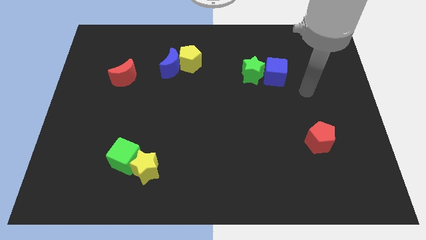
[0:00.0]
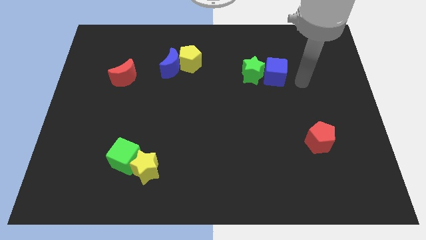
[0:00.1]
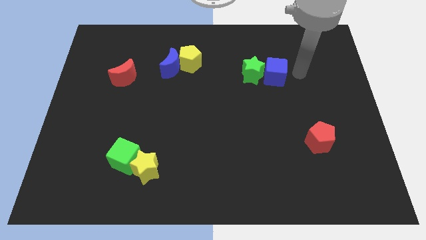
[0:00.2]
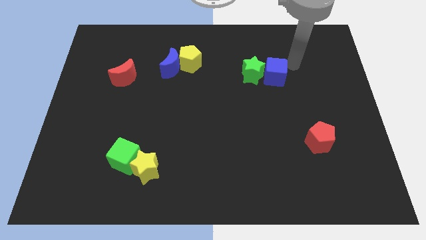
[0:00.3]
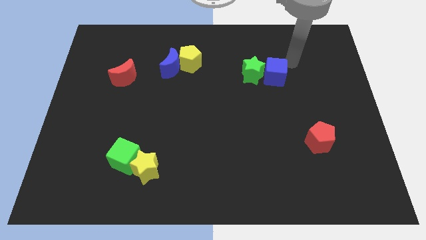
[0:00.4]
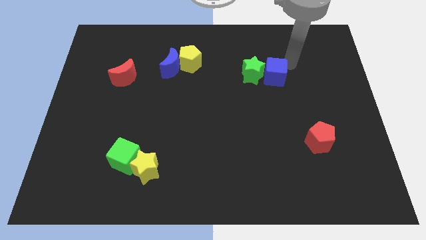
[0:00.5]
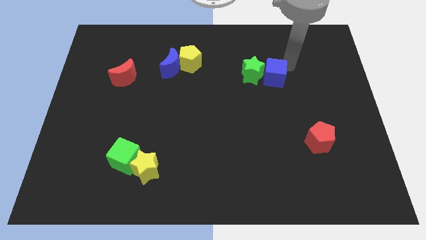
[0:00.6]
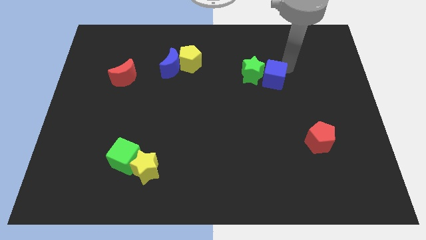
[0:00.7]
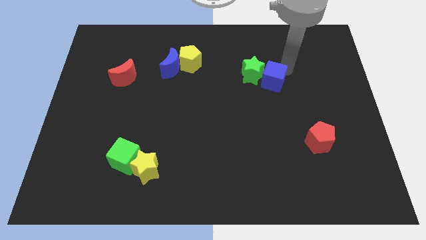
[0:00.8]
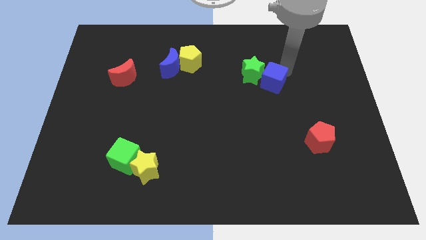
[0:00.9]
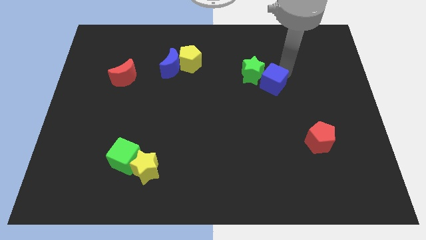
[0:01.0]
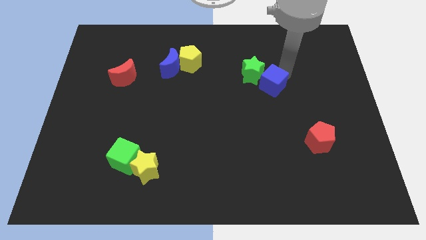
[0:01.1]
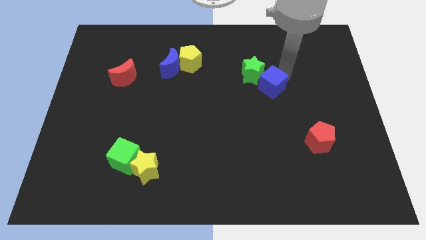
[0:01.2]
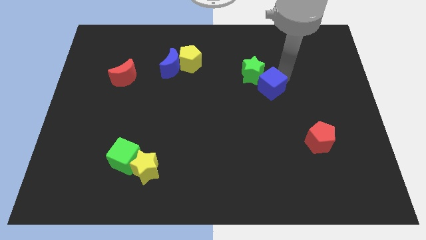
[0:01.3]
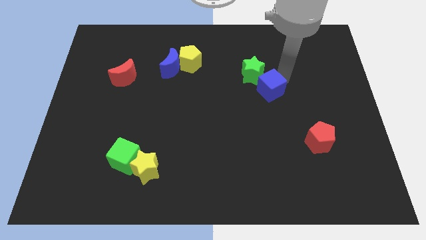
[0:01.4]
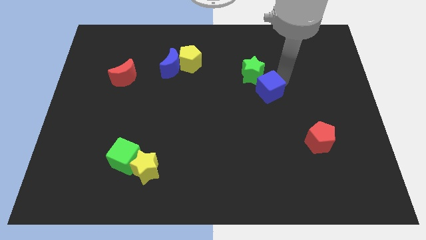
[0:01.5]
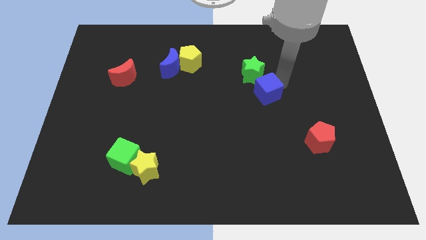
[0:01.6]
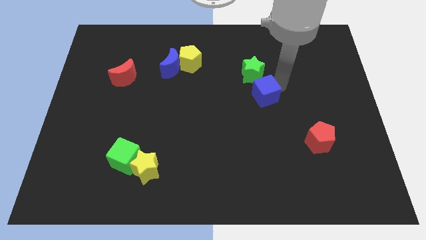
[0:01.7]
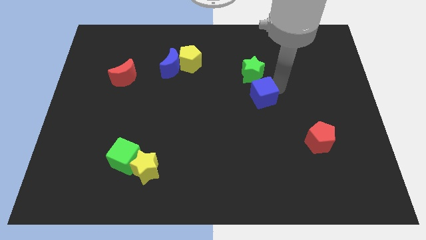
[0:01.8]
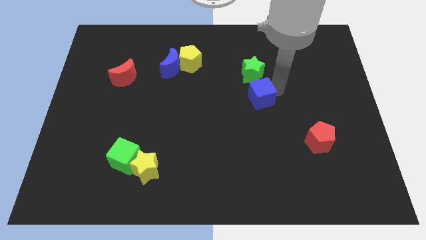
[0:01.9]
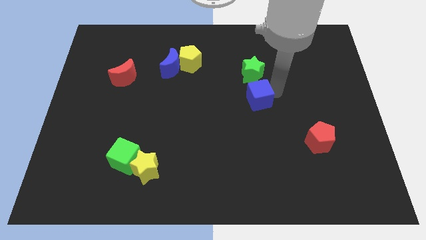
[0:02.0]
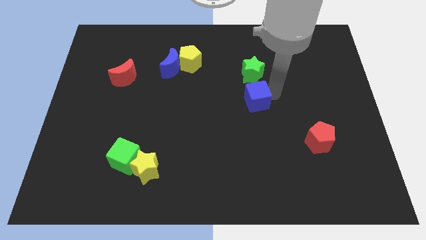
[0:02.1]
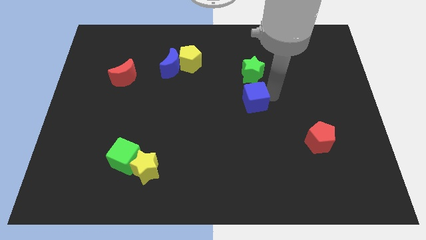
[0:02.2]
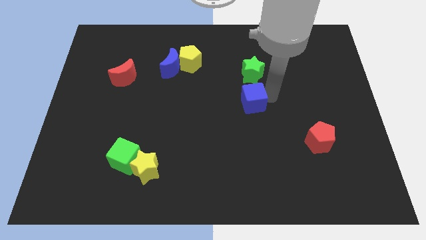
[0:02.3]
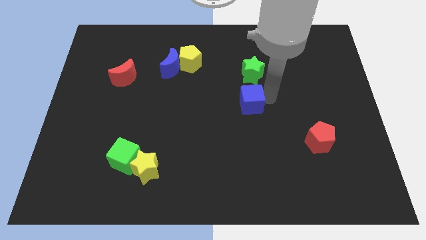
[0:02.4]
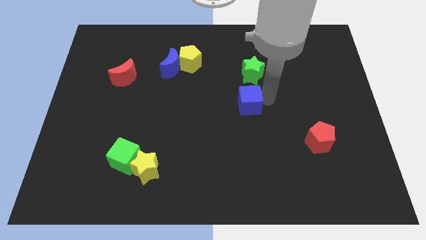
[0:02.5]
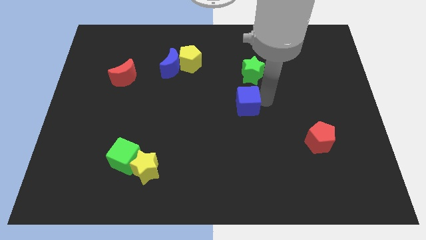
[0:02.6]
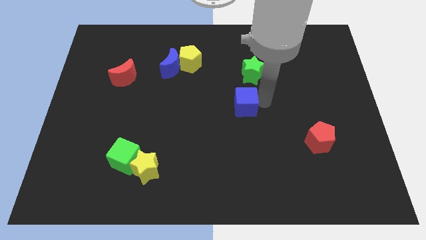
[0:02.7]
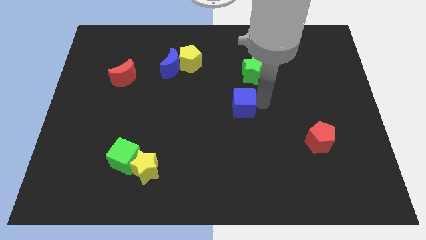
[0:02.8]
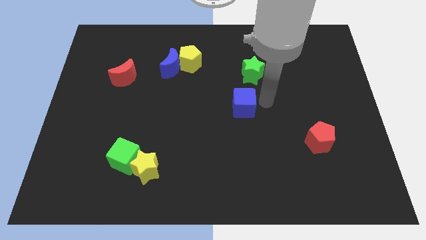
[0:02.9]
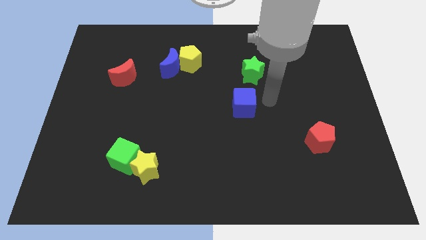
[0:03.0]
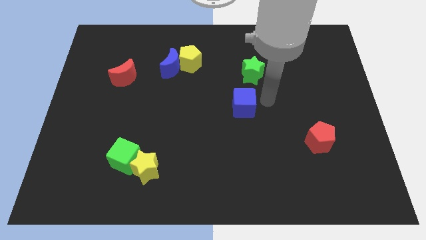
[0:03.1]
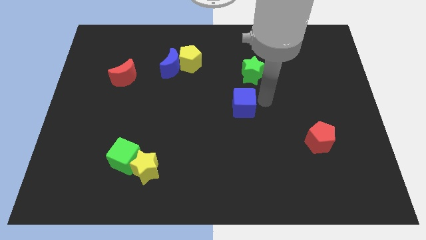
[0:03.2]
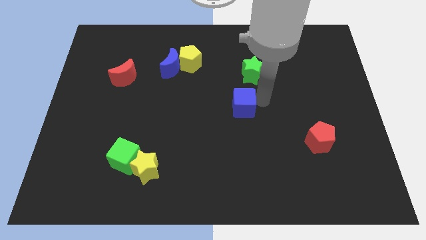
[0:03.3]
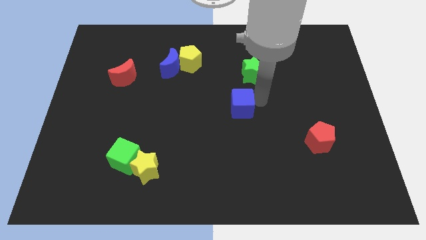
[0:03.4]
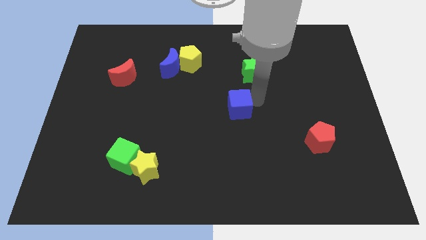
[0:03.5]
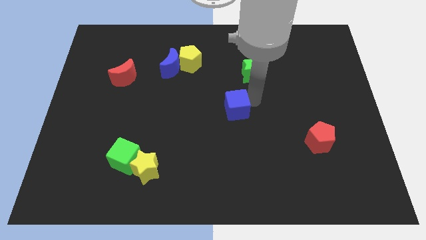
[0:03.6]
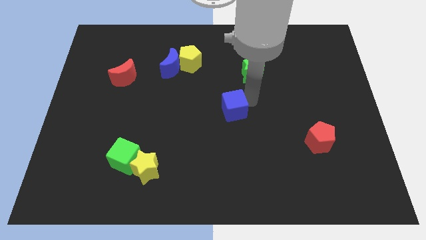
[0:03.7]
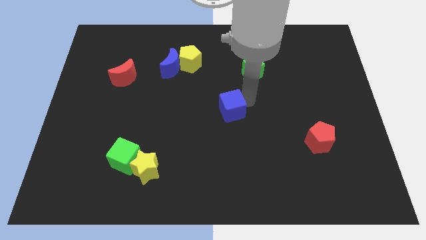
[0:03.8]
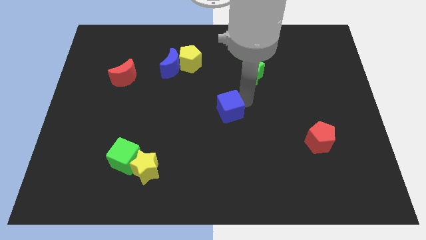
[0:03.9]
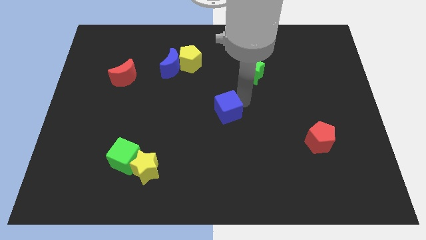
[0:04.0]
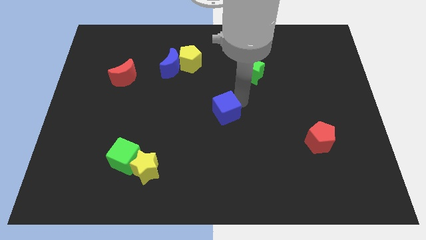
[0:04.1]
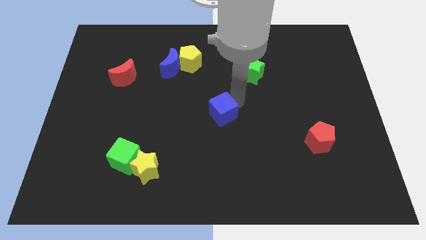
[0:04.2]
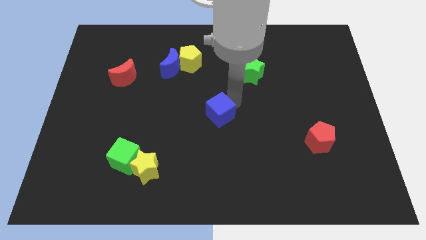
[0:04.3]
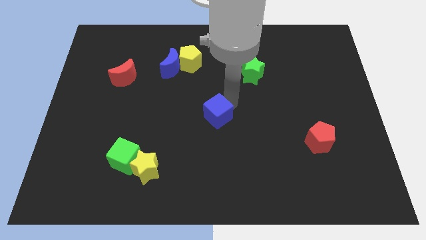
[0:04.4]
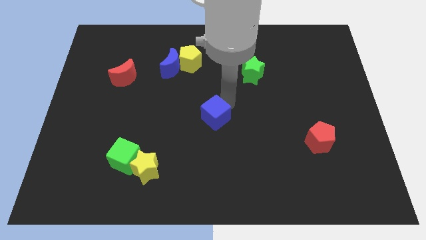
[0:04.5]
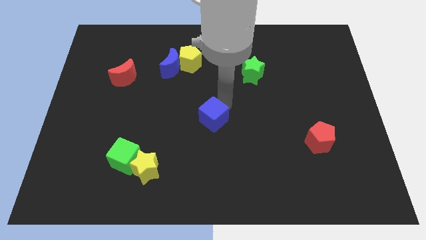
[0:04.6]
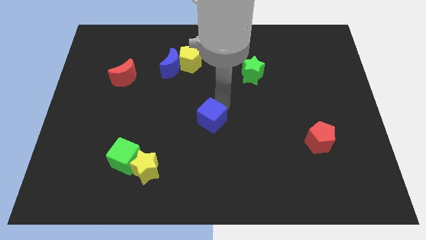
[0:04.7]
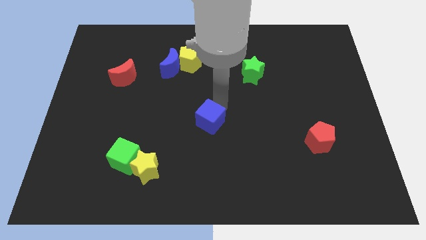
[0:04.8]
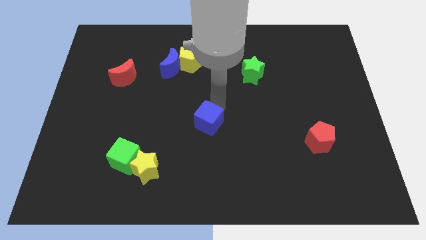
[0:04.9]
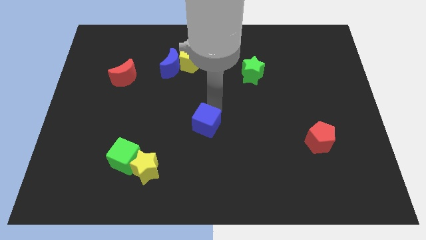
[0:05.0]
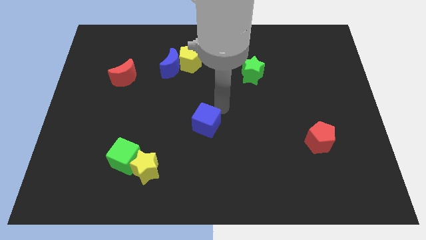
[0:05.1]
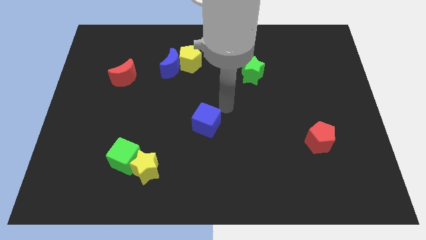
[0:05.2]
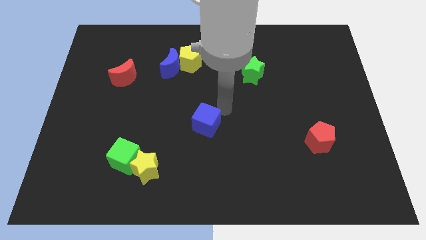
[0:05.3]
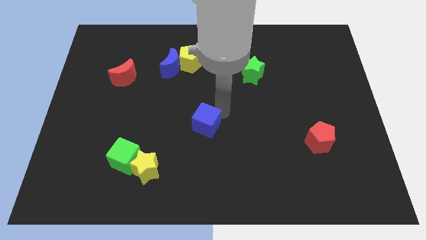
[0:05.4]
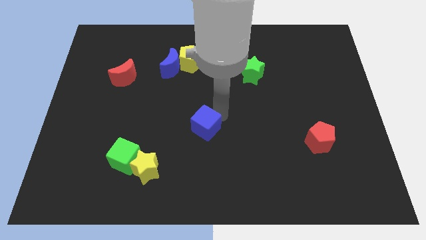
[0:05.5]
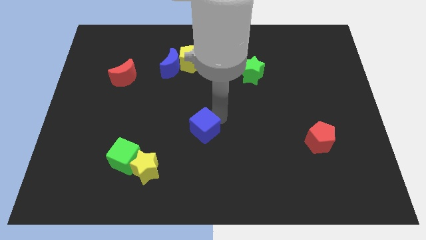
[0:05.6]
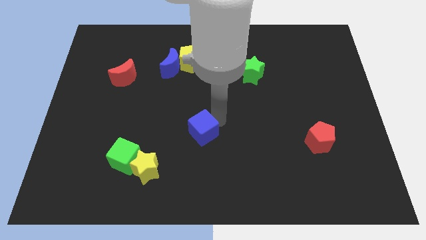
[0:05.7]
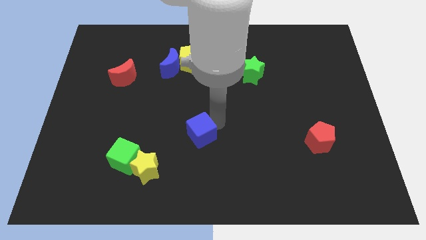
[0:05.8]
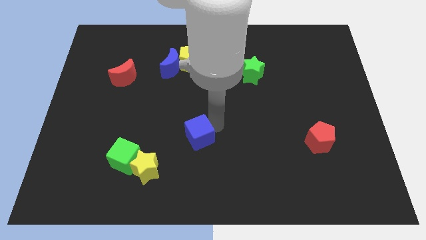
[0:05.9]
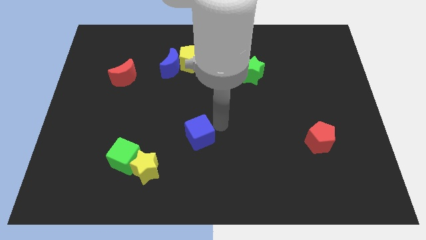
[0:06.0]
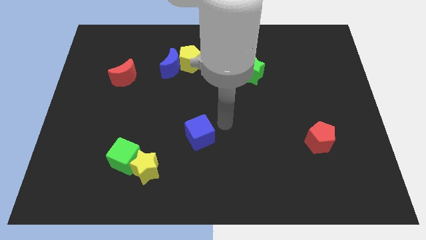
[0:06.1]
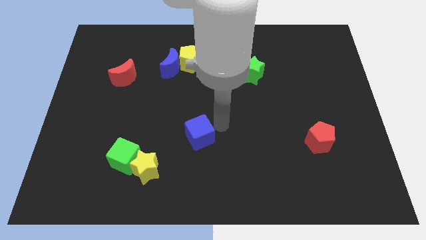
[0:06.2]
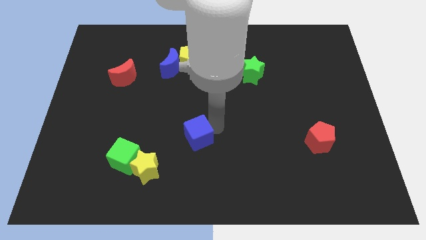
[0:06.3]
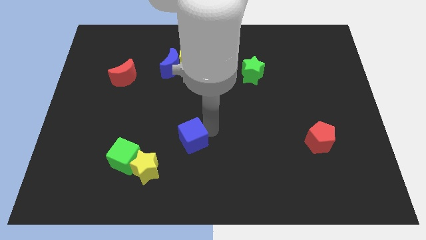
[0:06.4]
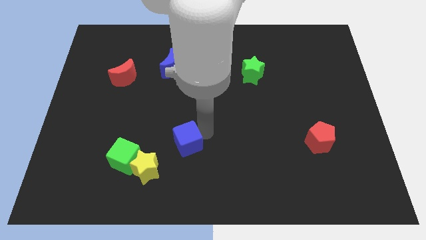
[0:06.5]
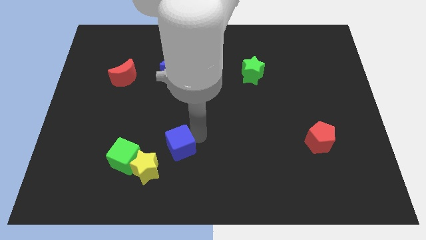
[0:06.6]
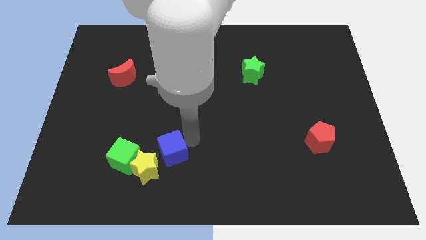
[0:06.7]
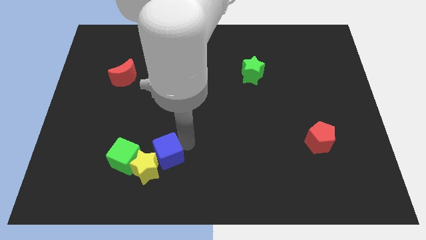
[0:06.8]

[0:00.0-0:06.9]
put the blue cube to the yellow star
